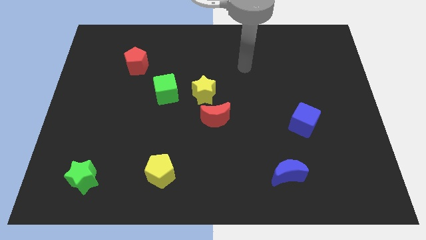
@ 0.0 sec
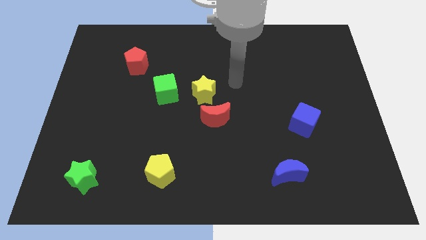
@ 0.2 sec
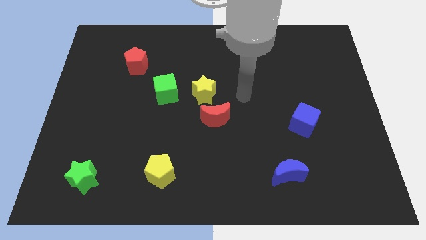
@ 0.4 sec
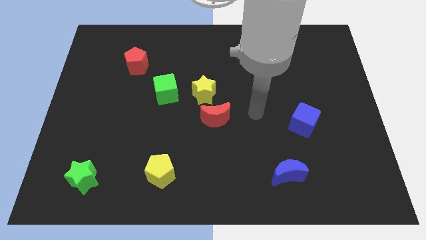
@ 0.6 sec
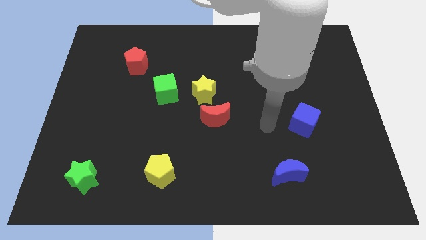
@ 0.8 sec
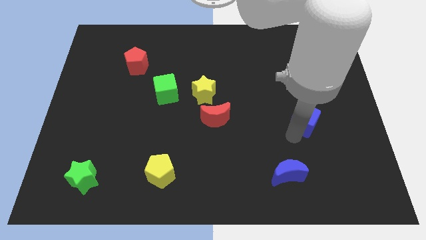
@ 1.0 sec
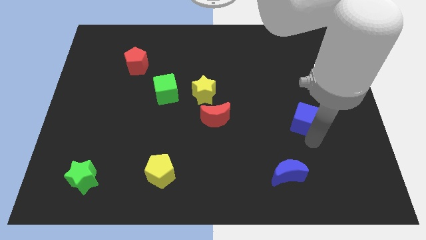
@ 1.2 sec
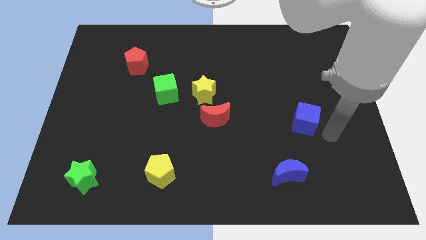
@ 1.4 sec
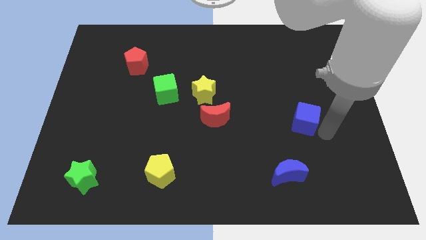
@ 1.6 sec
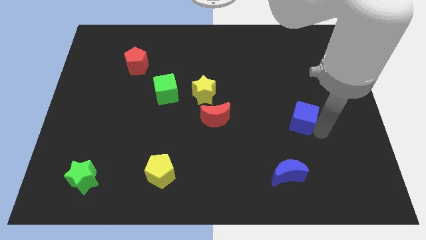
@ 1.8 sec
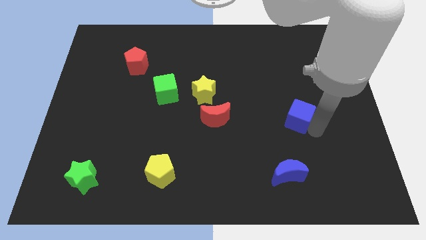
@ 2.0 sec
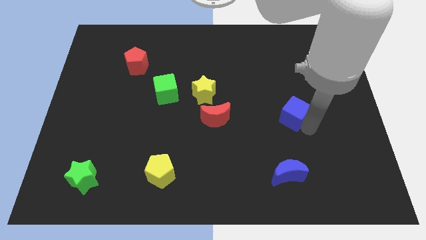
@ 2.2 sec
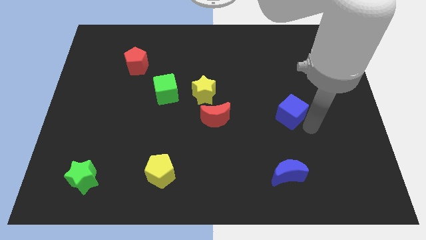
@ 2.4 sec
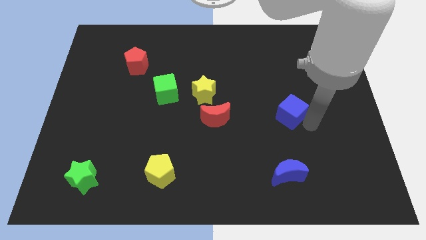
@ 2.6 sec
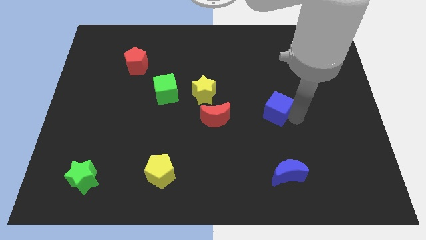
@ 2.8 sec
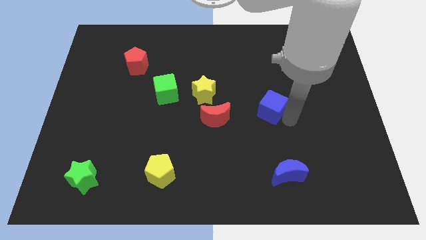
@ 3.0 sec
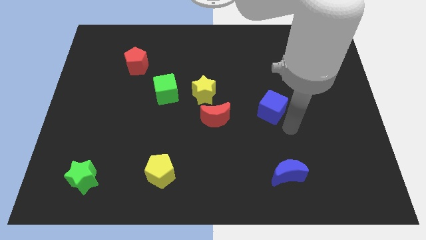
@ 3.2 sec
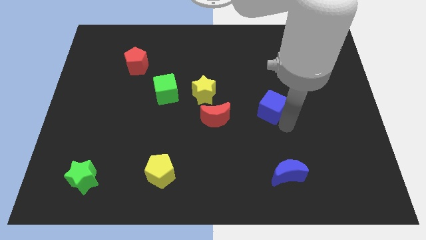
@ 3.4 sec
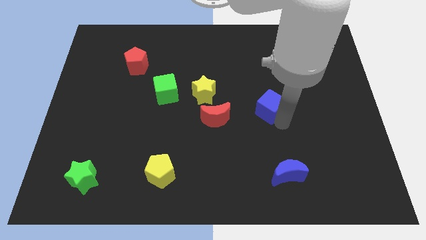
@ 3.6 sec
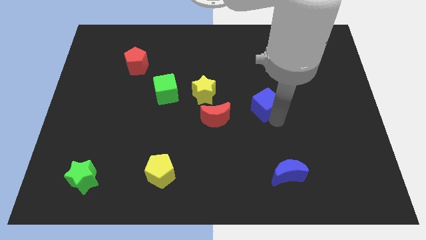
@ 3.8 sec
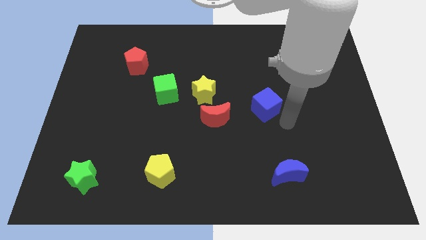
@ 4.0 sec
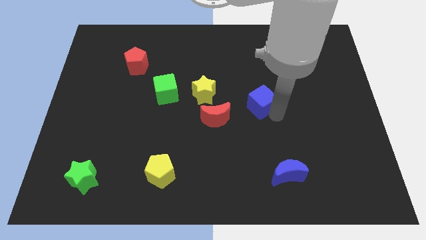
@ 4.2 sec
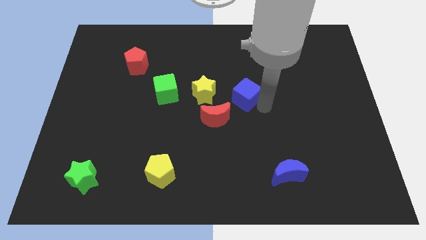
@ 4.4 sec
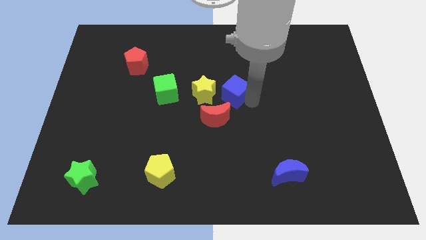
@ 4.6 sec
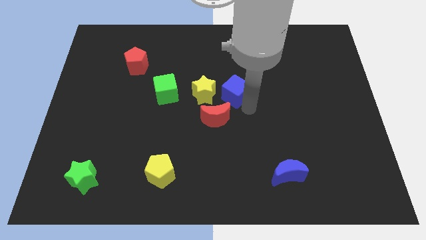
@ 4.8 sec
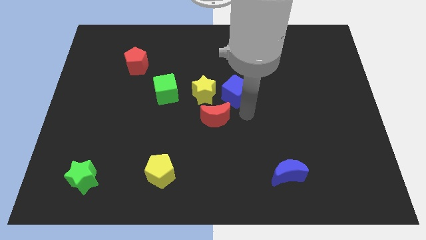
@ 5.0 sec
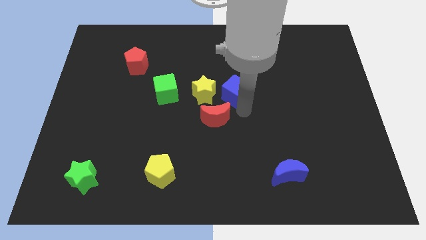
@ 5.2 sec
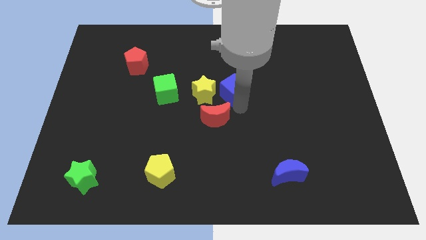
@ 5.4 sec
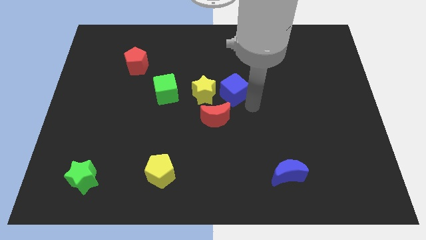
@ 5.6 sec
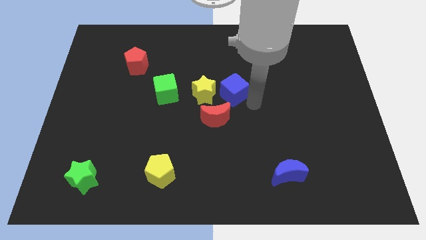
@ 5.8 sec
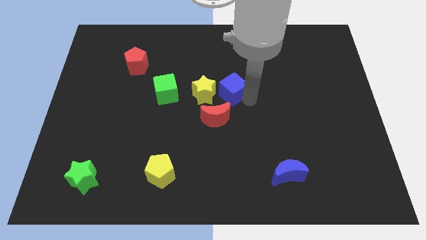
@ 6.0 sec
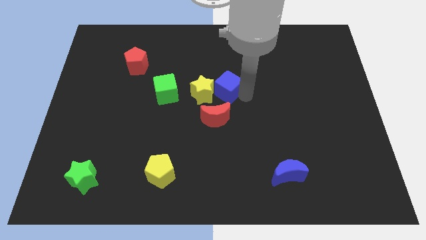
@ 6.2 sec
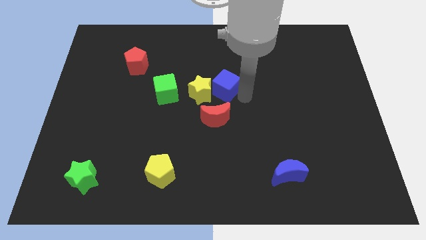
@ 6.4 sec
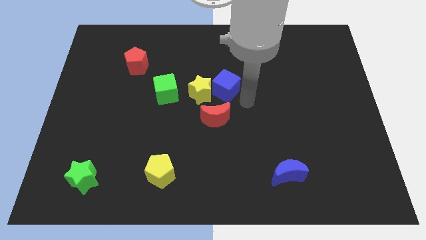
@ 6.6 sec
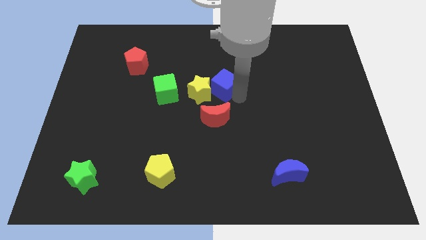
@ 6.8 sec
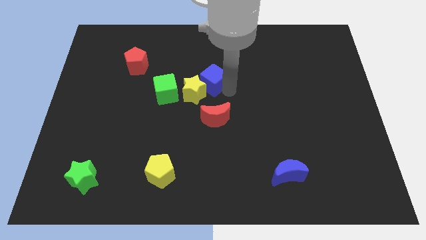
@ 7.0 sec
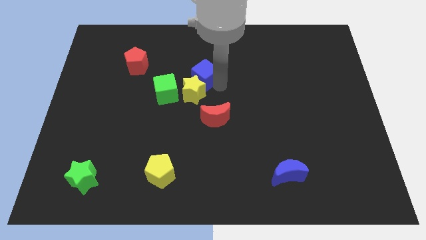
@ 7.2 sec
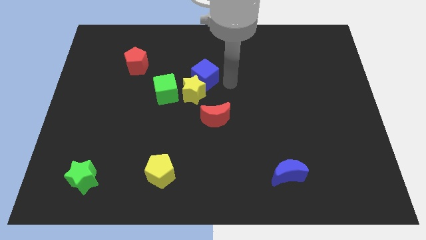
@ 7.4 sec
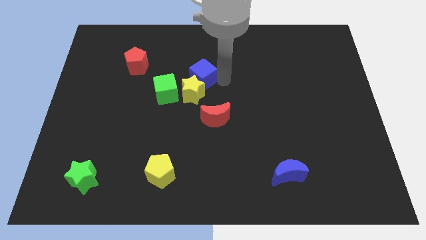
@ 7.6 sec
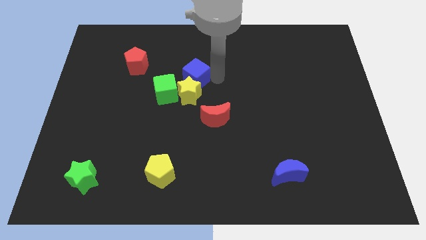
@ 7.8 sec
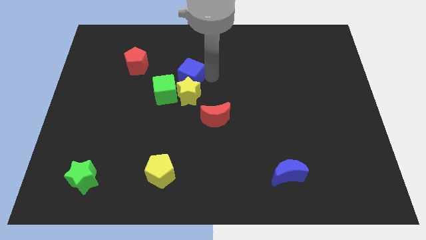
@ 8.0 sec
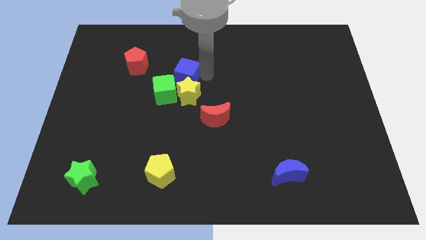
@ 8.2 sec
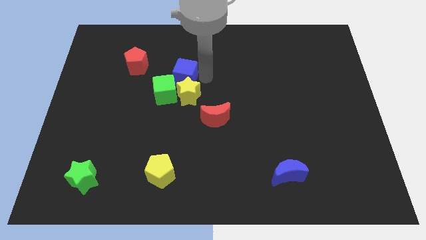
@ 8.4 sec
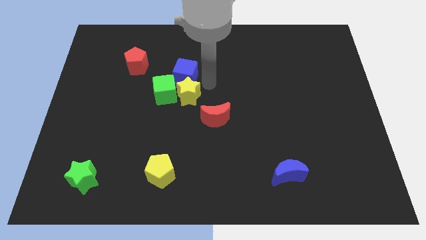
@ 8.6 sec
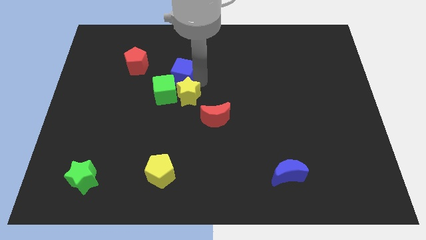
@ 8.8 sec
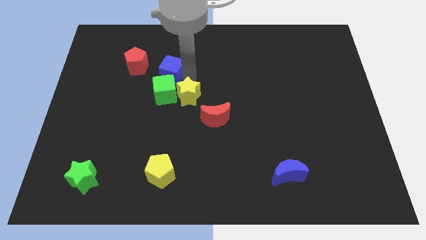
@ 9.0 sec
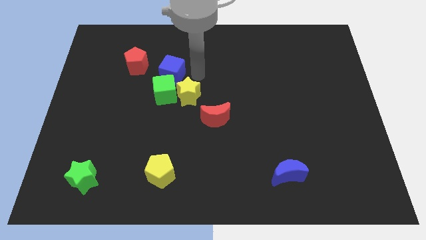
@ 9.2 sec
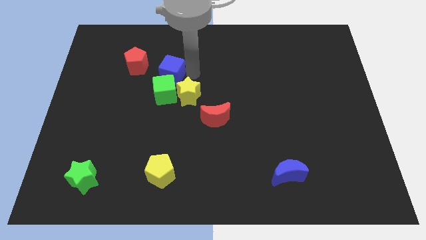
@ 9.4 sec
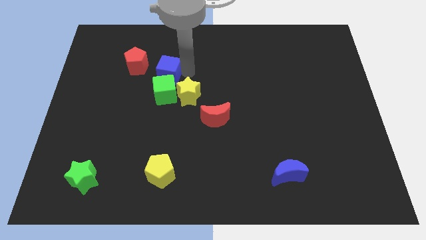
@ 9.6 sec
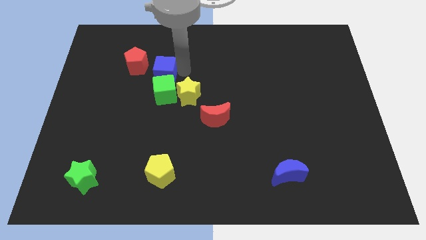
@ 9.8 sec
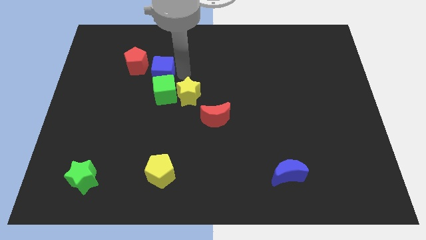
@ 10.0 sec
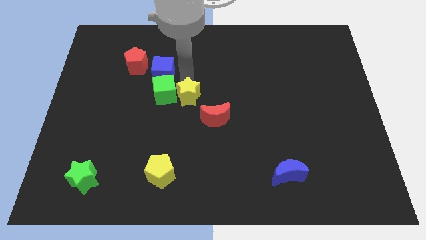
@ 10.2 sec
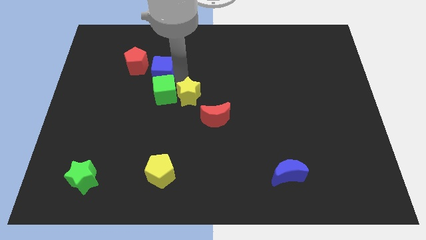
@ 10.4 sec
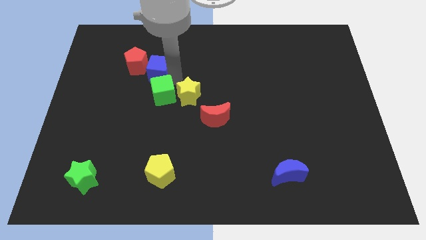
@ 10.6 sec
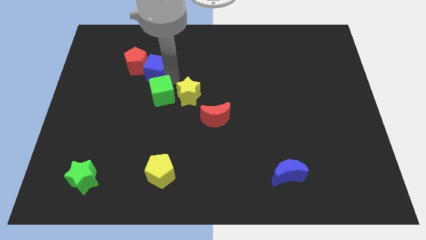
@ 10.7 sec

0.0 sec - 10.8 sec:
slide the blue cube next to the red pentagon

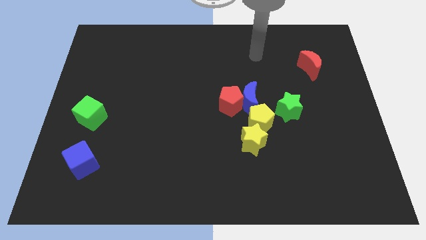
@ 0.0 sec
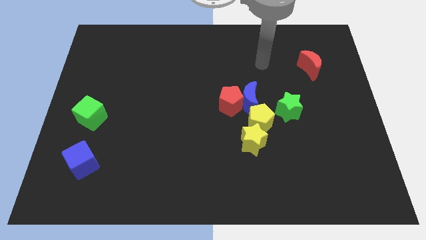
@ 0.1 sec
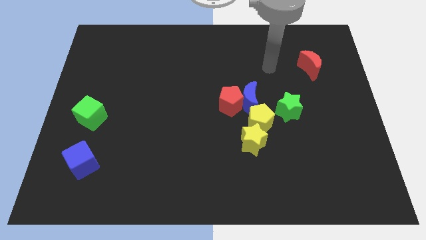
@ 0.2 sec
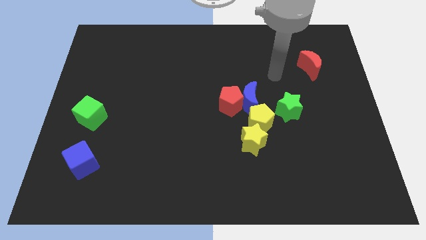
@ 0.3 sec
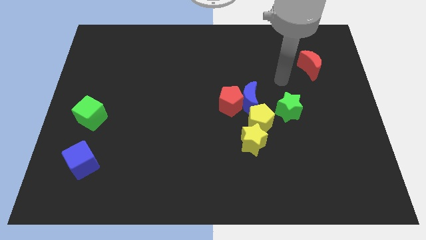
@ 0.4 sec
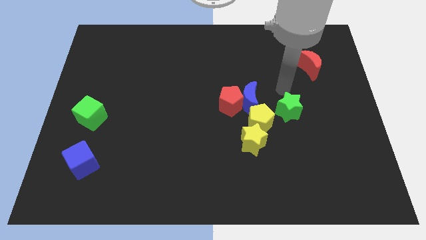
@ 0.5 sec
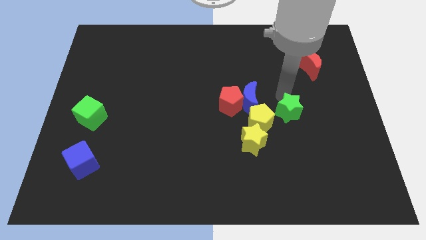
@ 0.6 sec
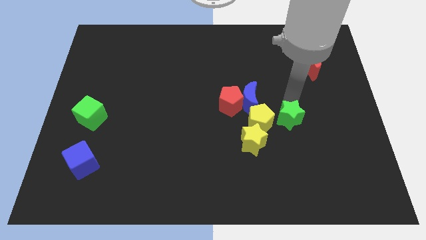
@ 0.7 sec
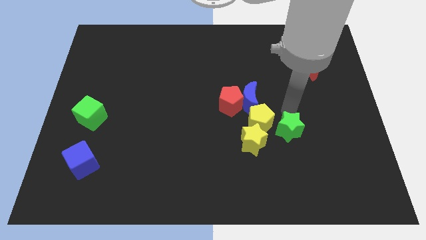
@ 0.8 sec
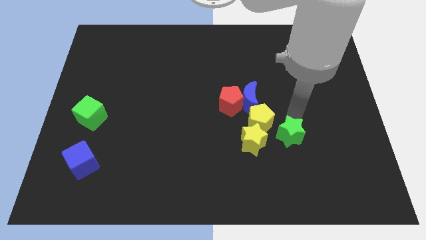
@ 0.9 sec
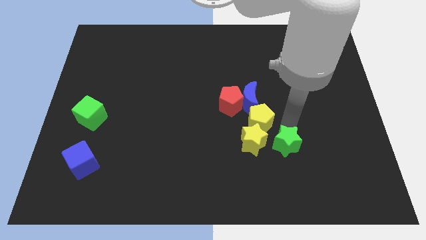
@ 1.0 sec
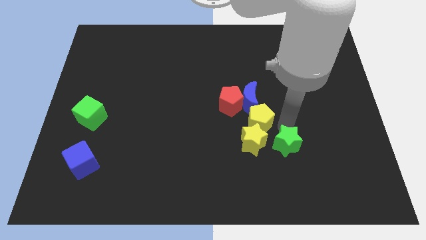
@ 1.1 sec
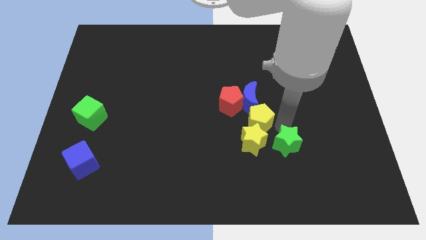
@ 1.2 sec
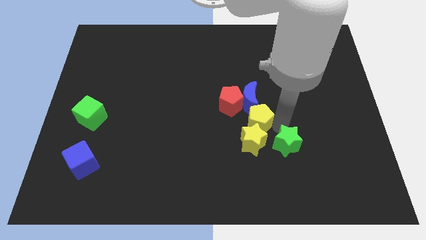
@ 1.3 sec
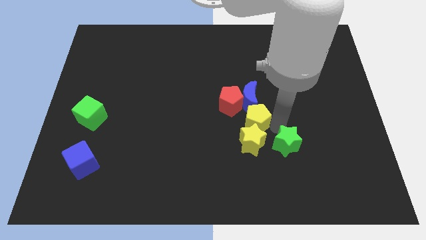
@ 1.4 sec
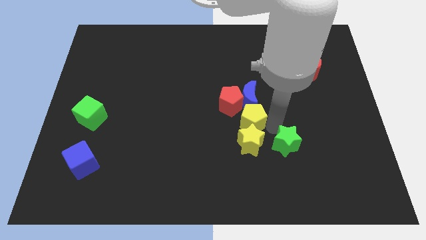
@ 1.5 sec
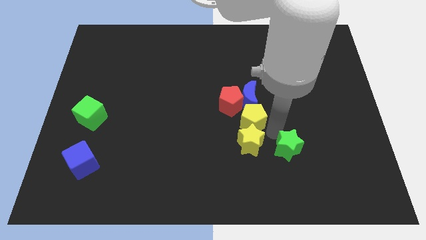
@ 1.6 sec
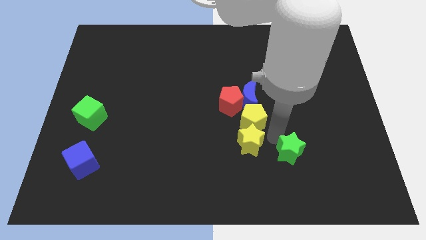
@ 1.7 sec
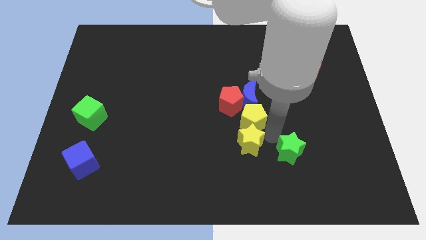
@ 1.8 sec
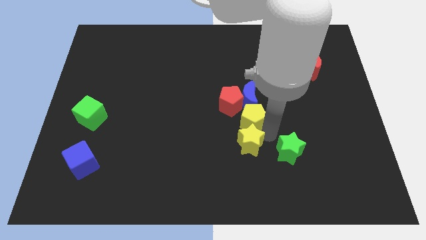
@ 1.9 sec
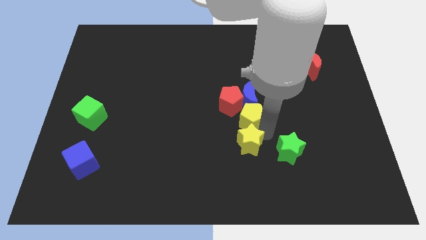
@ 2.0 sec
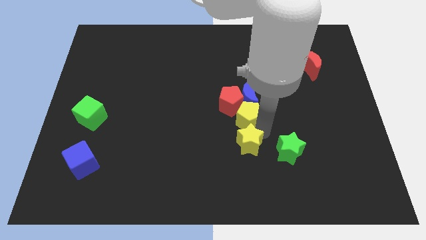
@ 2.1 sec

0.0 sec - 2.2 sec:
push the yellow pentagon close to the red pentagon
